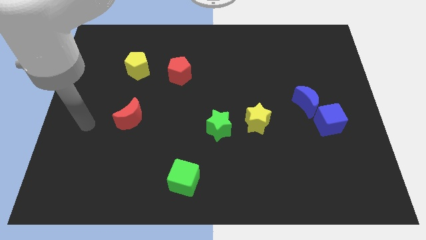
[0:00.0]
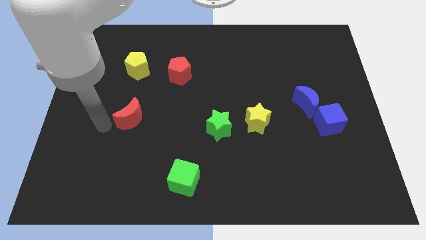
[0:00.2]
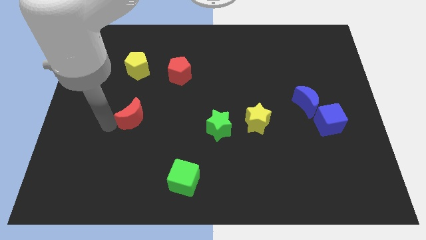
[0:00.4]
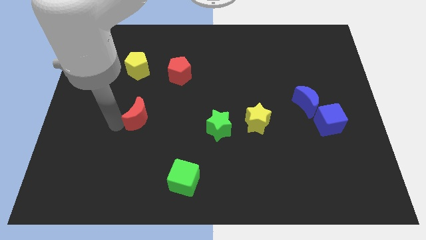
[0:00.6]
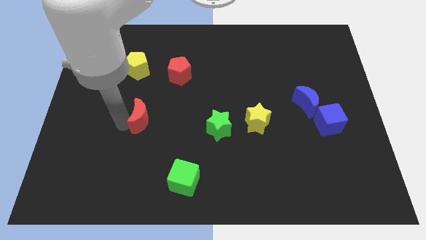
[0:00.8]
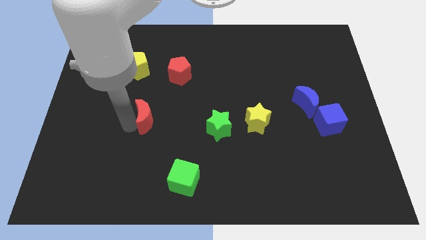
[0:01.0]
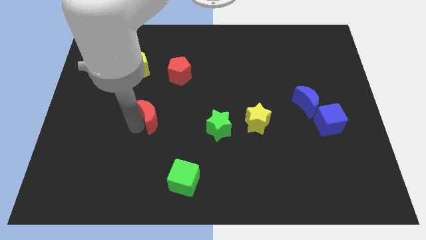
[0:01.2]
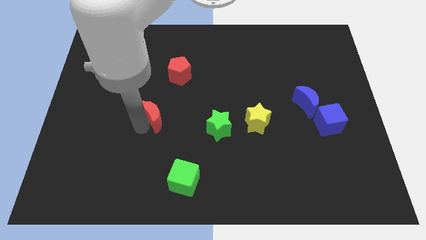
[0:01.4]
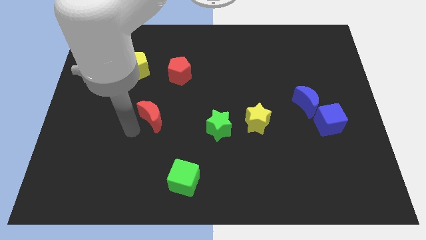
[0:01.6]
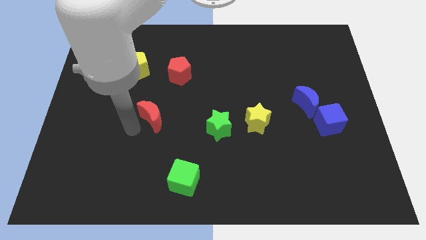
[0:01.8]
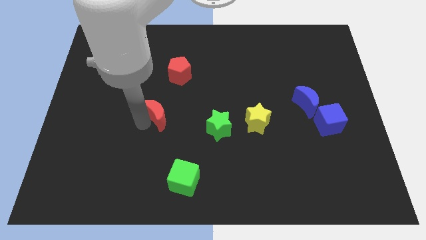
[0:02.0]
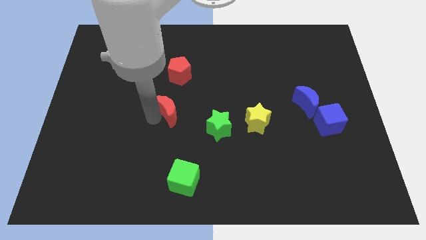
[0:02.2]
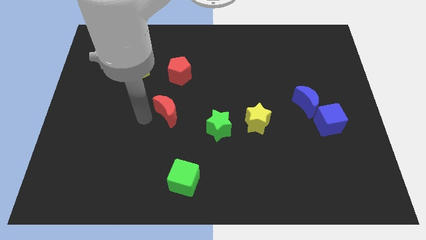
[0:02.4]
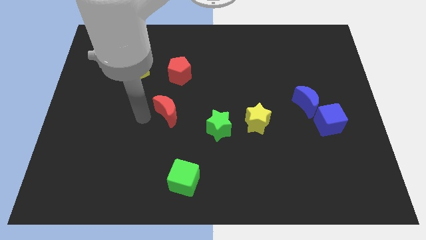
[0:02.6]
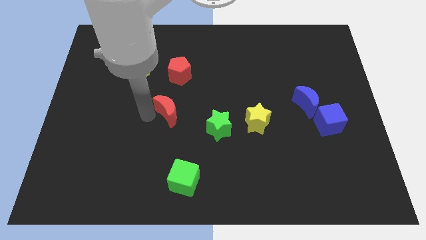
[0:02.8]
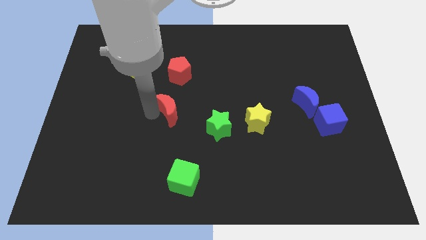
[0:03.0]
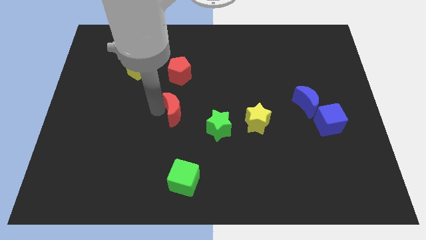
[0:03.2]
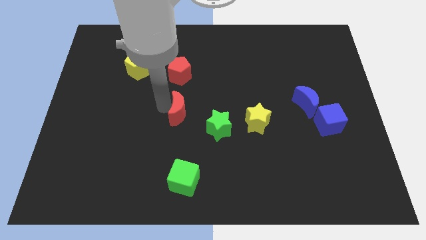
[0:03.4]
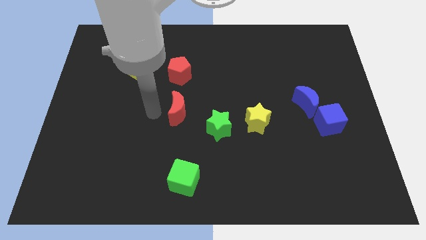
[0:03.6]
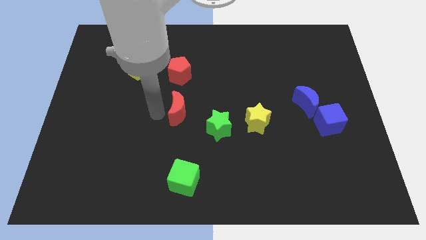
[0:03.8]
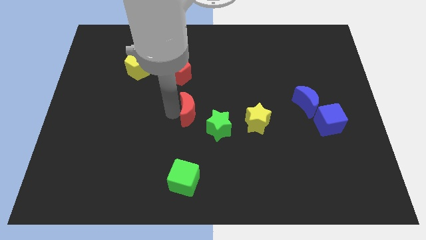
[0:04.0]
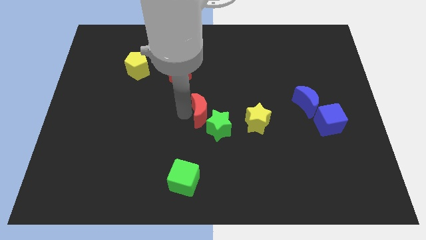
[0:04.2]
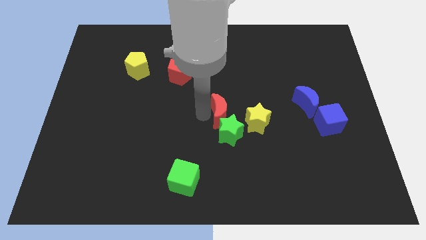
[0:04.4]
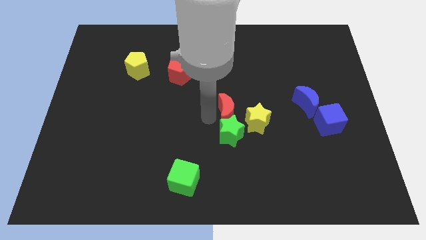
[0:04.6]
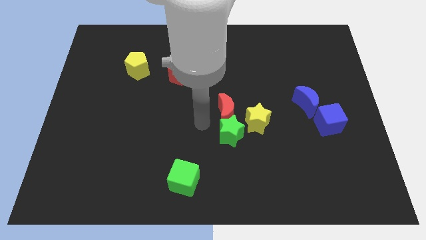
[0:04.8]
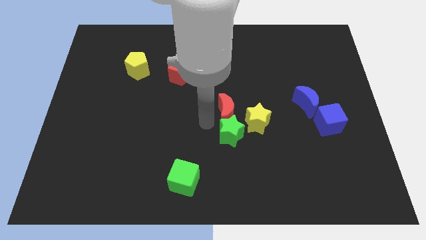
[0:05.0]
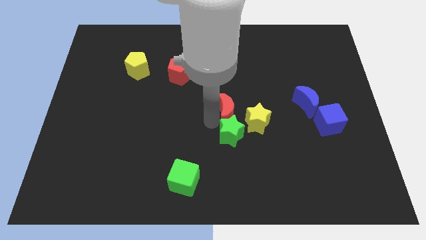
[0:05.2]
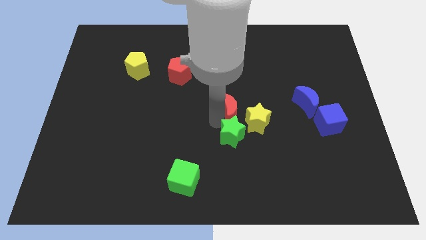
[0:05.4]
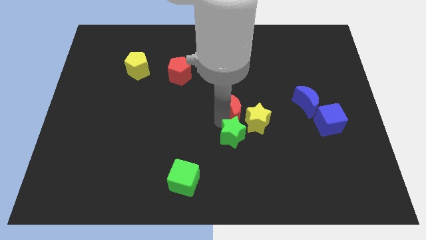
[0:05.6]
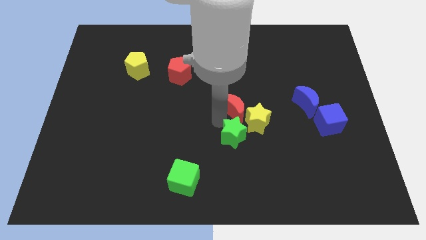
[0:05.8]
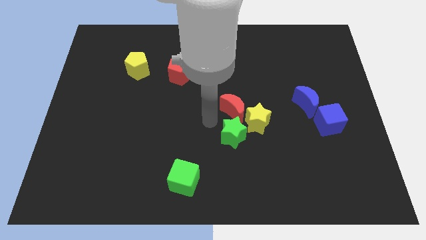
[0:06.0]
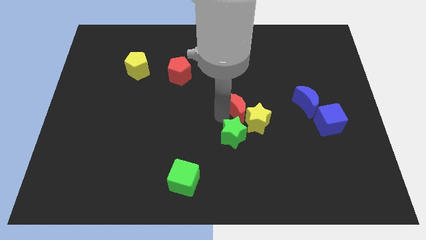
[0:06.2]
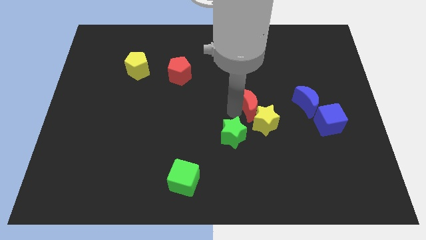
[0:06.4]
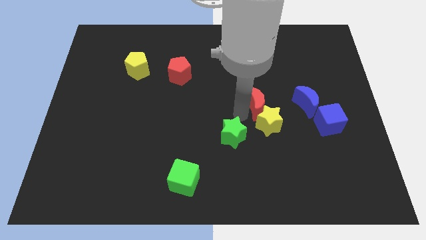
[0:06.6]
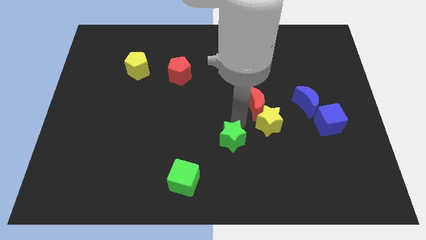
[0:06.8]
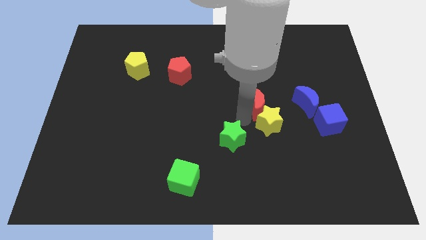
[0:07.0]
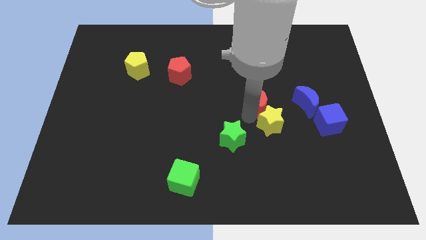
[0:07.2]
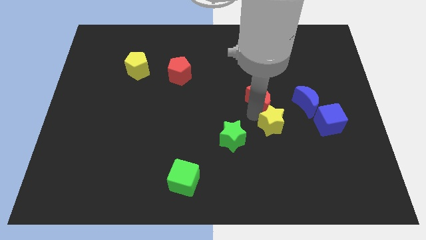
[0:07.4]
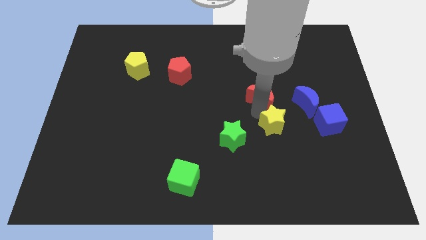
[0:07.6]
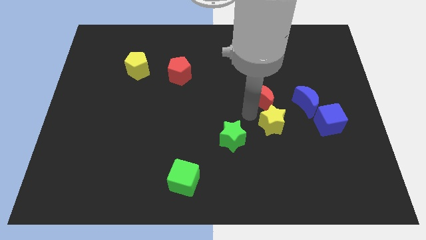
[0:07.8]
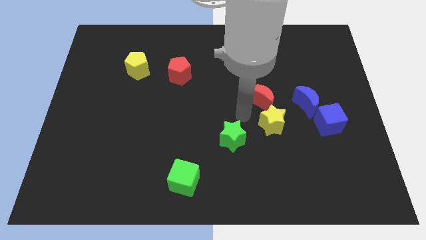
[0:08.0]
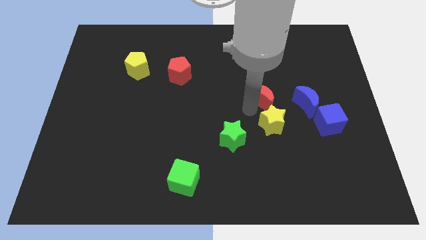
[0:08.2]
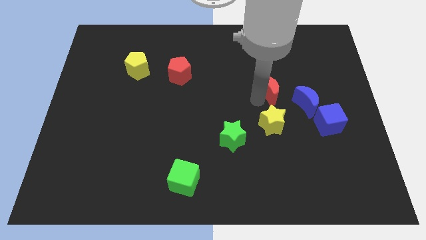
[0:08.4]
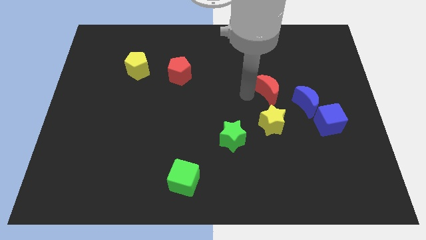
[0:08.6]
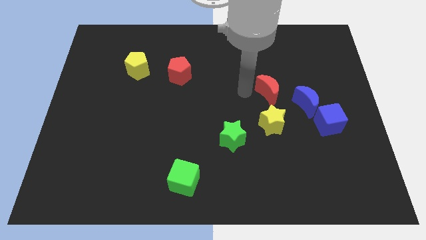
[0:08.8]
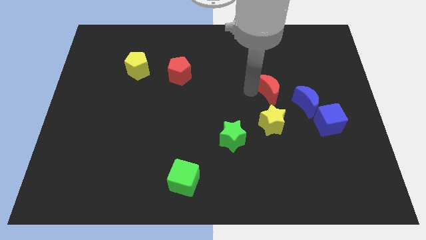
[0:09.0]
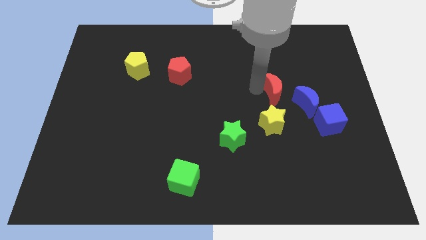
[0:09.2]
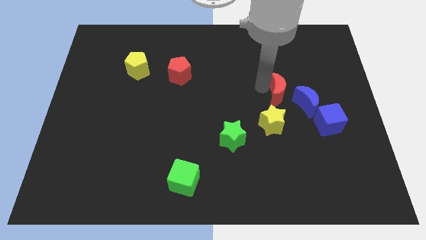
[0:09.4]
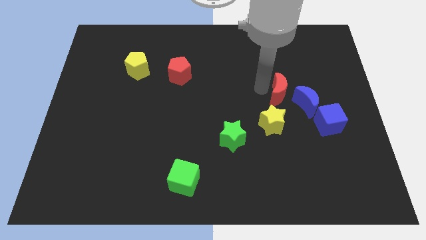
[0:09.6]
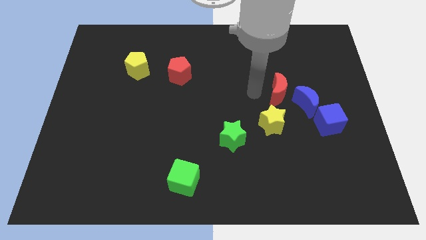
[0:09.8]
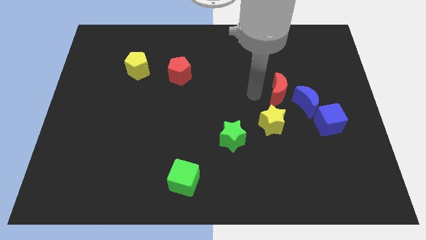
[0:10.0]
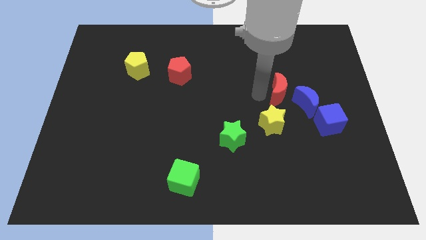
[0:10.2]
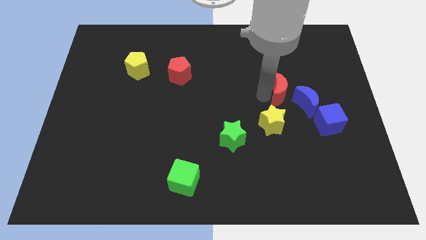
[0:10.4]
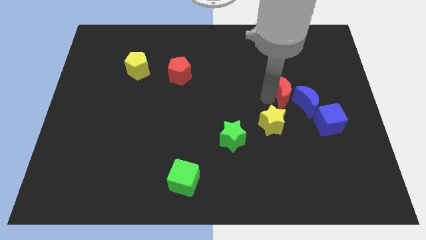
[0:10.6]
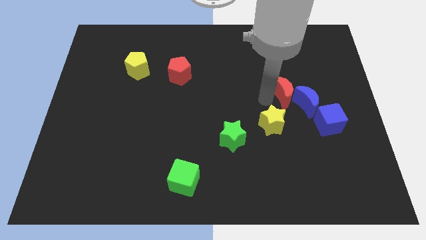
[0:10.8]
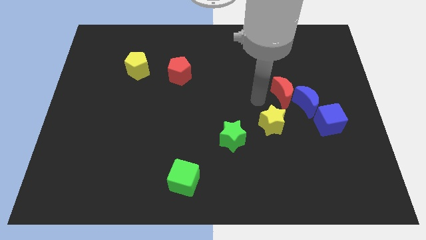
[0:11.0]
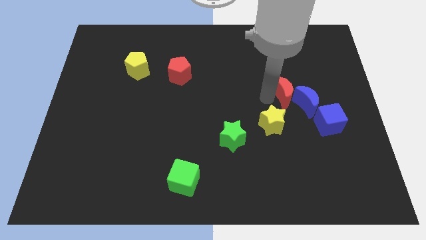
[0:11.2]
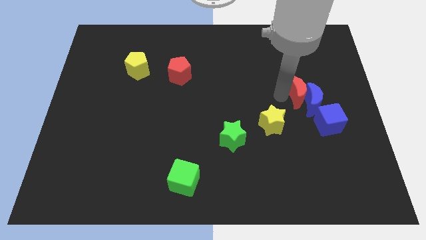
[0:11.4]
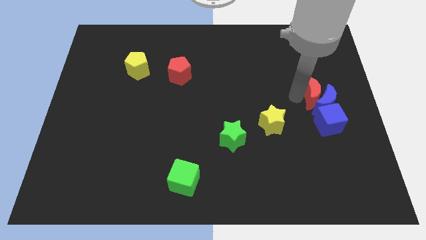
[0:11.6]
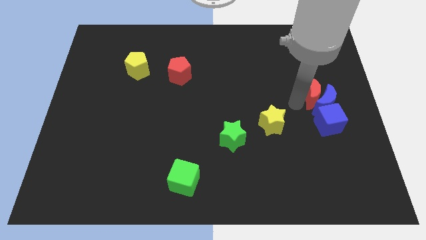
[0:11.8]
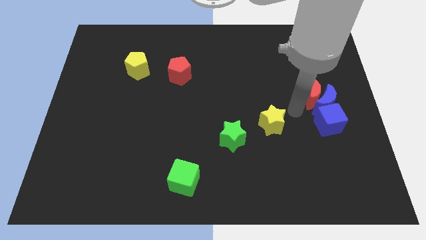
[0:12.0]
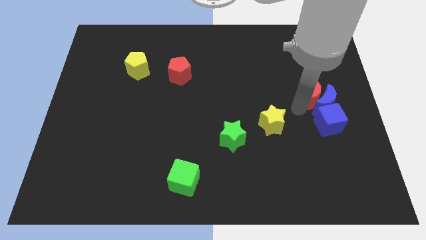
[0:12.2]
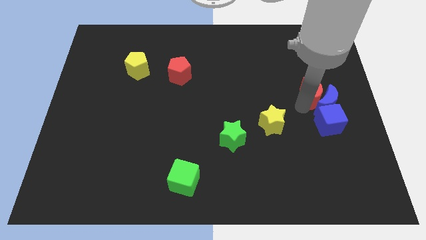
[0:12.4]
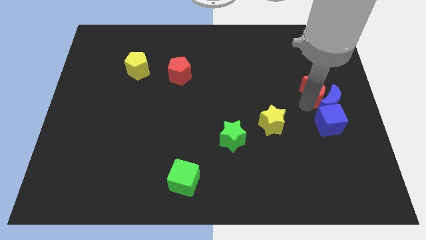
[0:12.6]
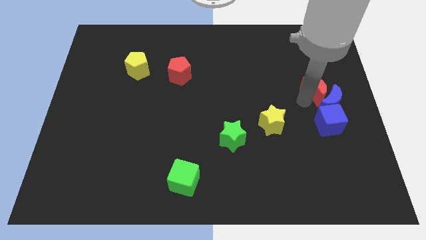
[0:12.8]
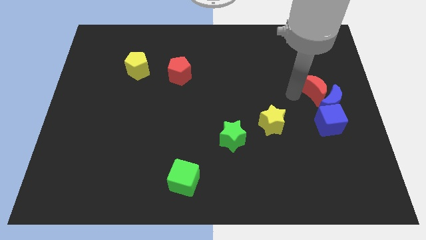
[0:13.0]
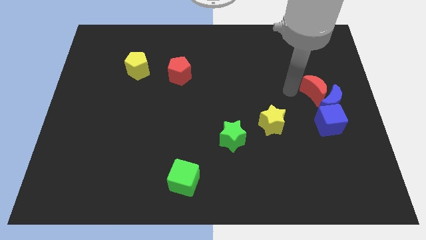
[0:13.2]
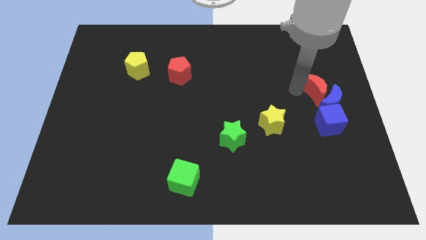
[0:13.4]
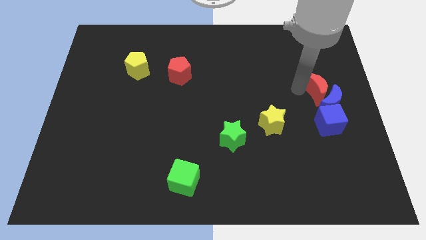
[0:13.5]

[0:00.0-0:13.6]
move the red moon to the right side of the board
